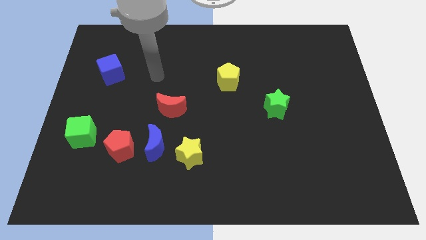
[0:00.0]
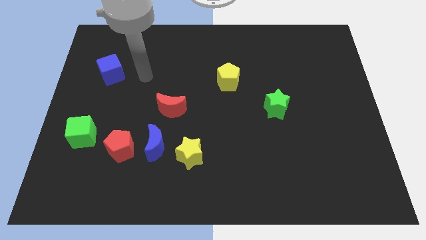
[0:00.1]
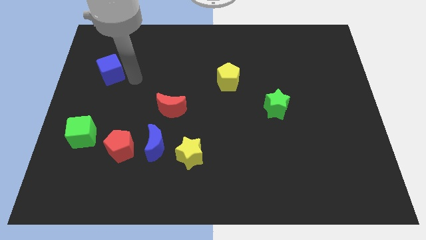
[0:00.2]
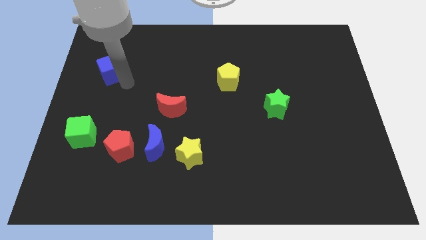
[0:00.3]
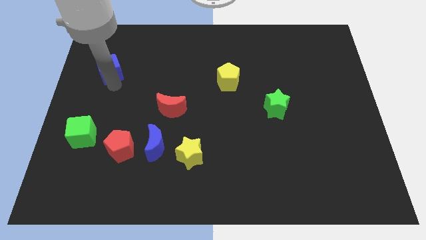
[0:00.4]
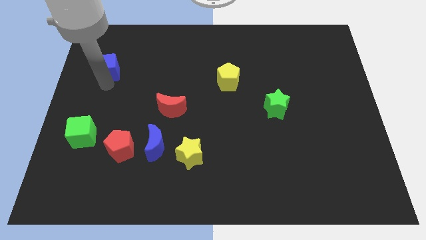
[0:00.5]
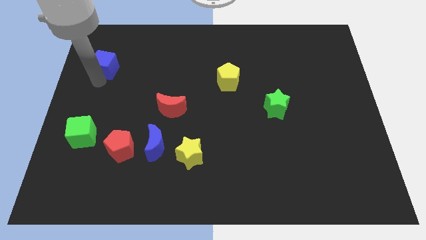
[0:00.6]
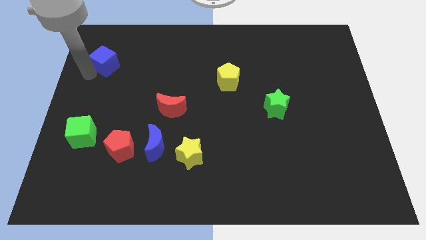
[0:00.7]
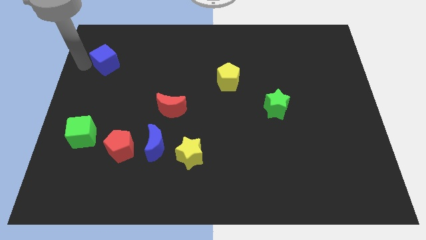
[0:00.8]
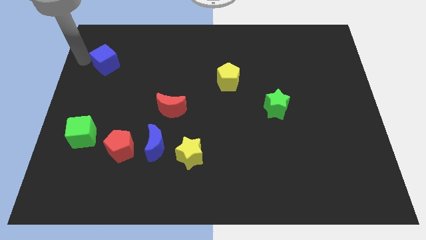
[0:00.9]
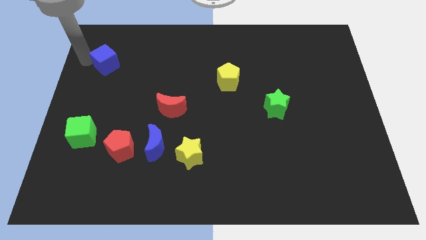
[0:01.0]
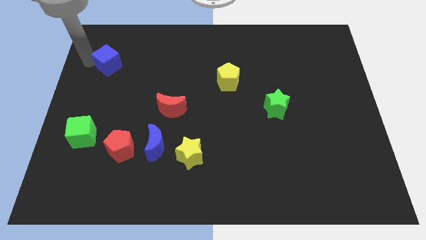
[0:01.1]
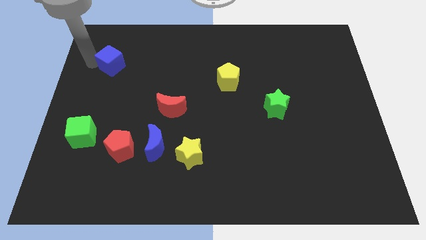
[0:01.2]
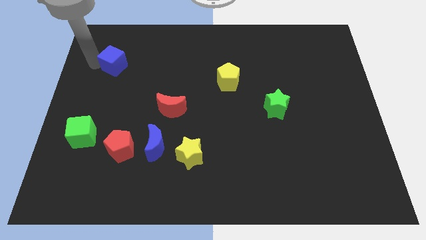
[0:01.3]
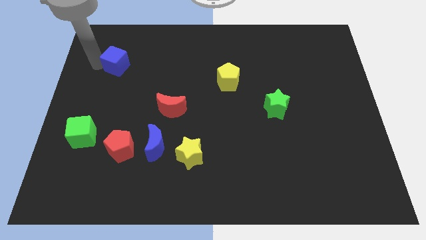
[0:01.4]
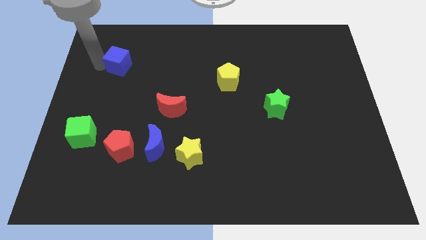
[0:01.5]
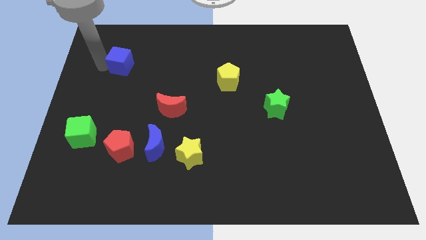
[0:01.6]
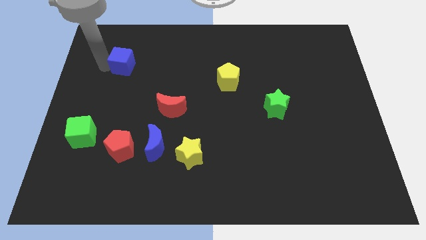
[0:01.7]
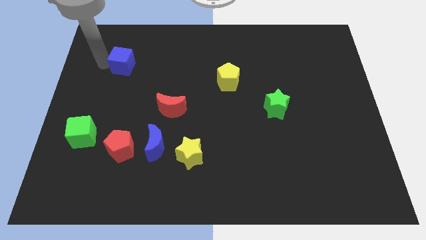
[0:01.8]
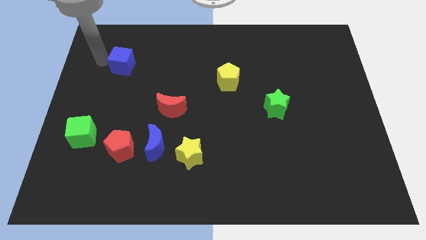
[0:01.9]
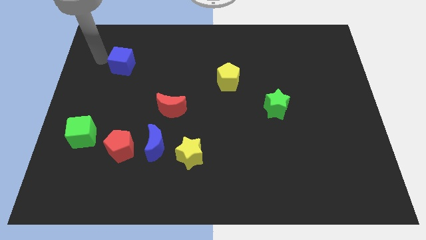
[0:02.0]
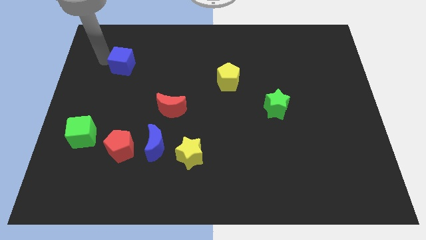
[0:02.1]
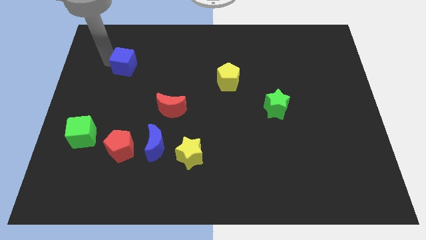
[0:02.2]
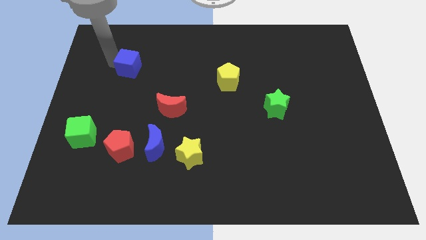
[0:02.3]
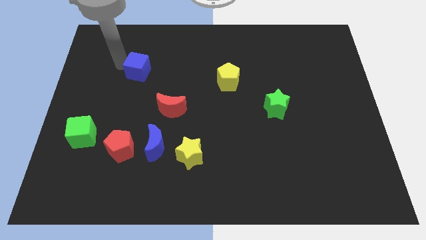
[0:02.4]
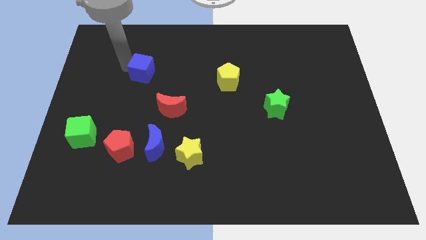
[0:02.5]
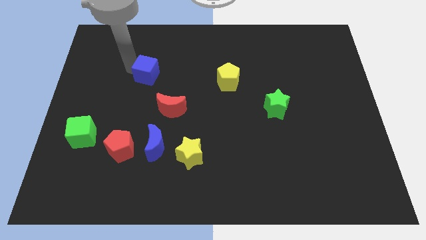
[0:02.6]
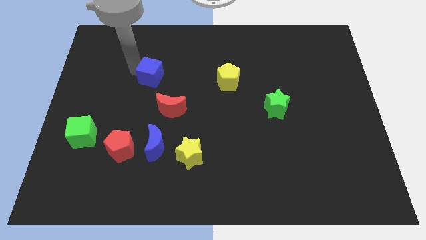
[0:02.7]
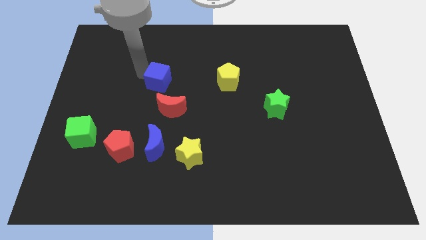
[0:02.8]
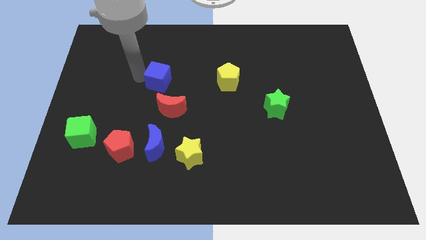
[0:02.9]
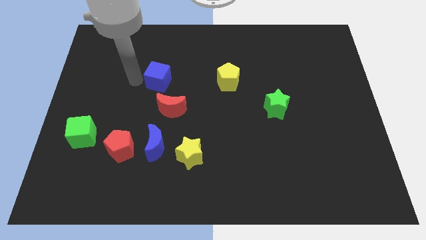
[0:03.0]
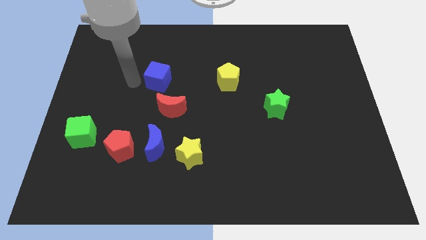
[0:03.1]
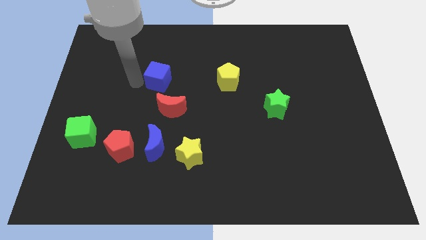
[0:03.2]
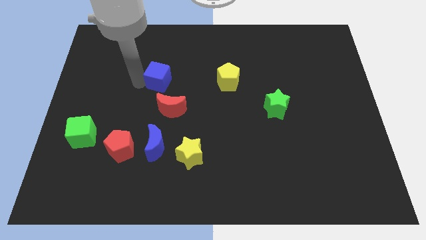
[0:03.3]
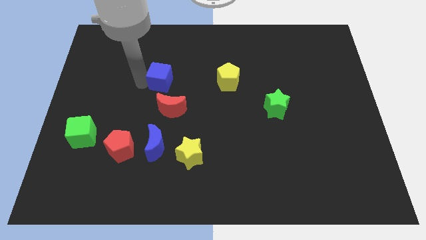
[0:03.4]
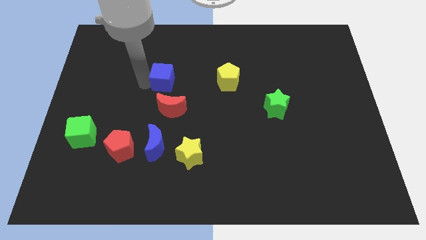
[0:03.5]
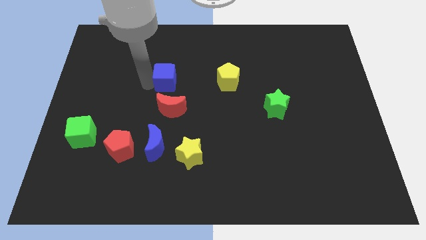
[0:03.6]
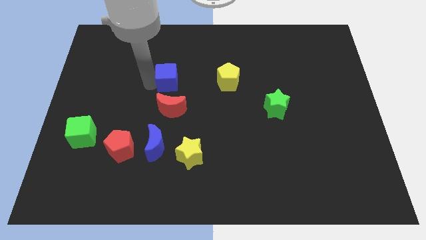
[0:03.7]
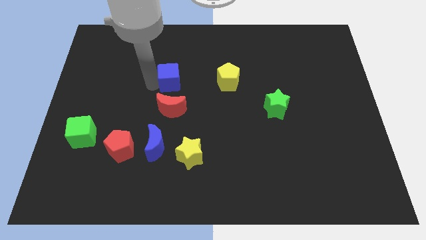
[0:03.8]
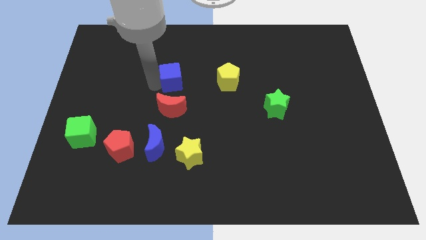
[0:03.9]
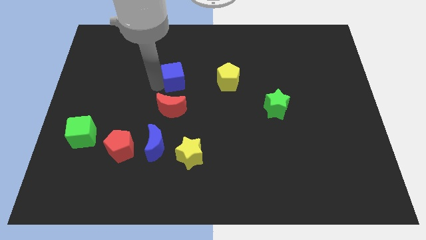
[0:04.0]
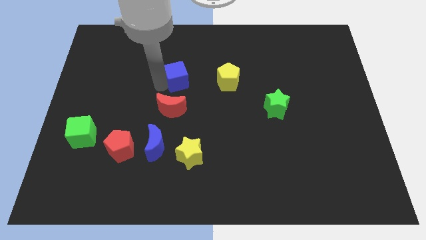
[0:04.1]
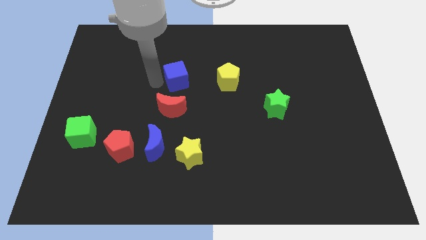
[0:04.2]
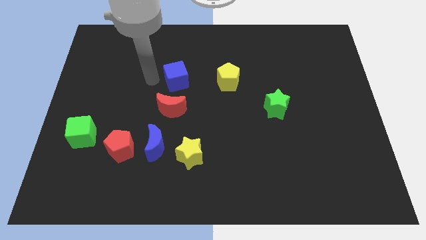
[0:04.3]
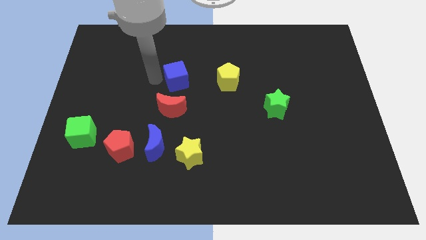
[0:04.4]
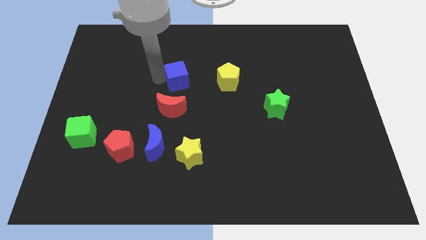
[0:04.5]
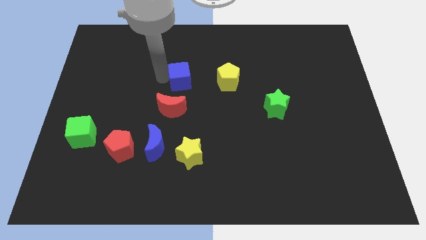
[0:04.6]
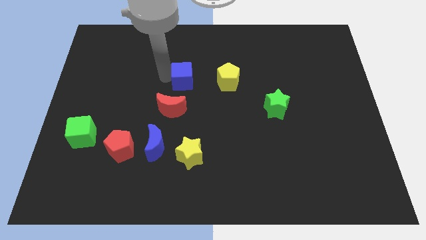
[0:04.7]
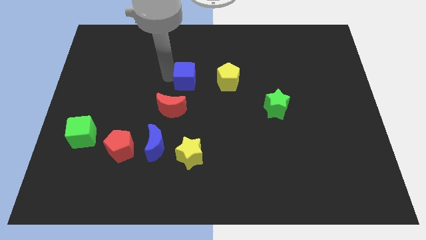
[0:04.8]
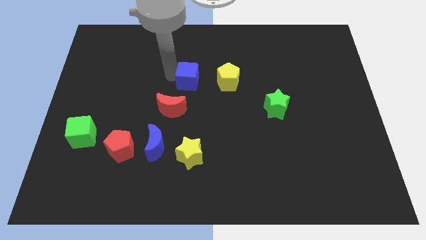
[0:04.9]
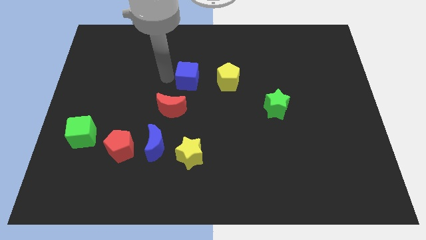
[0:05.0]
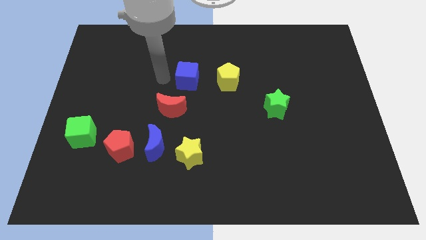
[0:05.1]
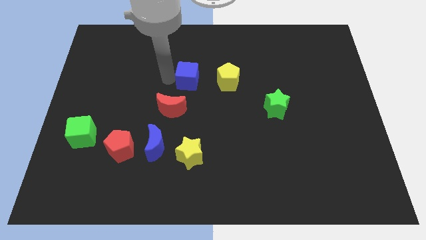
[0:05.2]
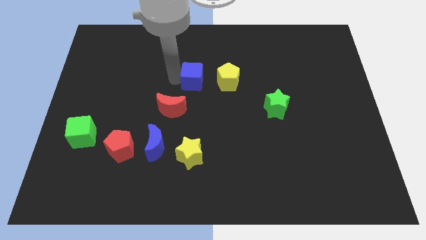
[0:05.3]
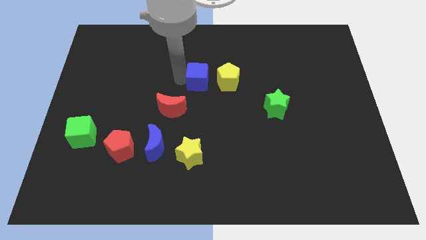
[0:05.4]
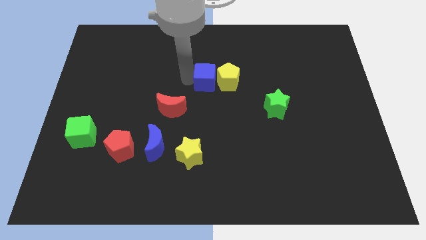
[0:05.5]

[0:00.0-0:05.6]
slide the blue cube towards the yellow pentagon

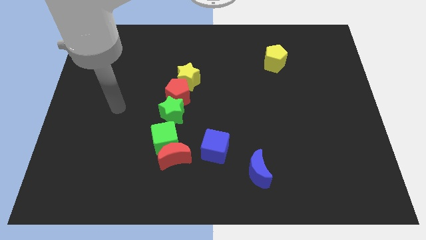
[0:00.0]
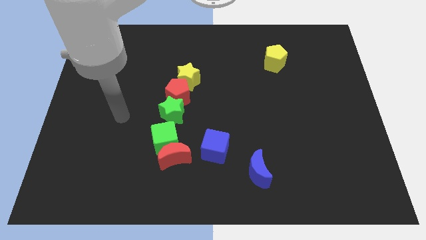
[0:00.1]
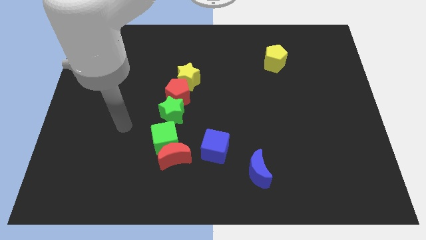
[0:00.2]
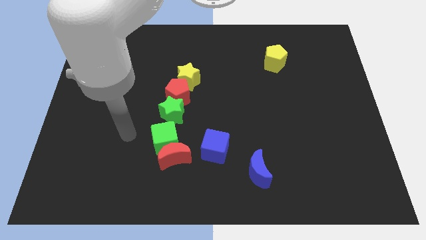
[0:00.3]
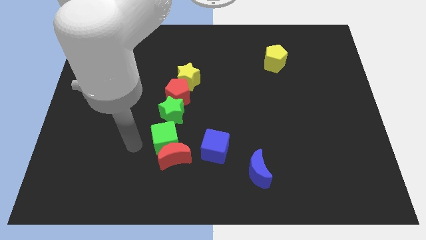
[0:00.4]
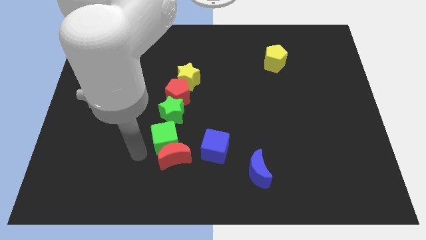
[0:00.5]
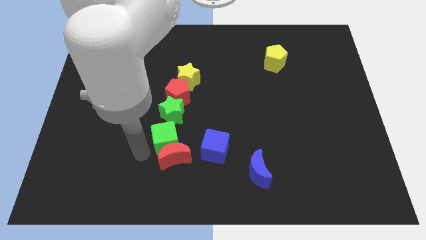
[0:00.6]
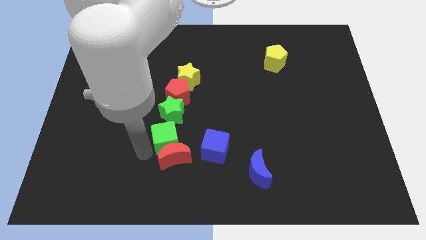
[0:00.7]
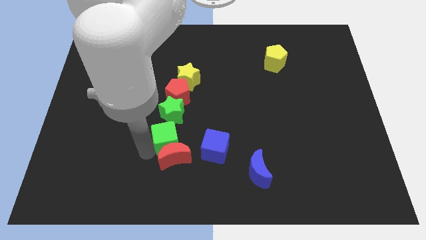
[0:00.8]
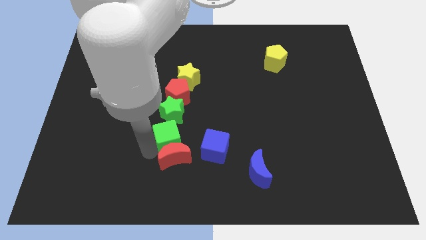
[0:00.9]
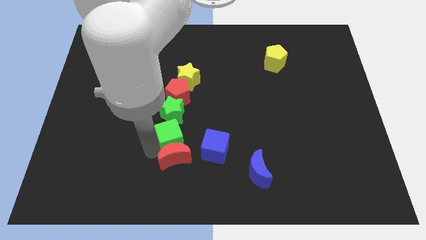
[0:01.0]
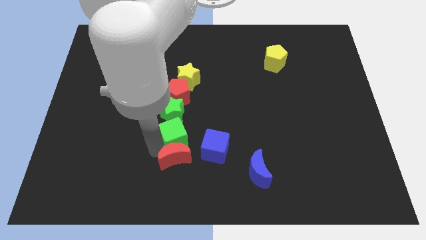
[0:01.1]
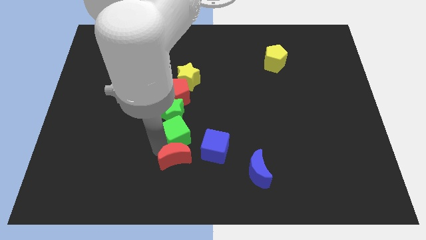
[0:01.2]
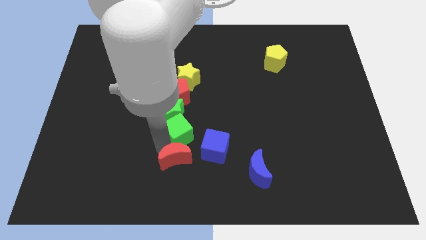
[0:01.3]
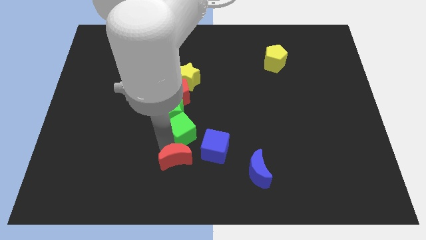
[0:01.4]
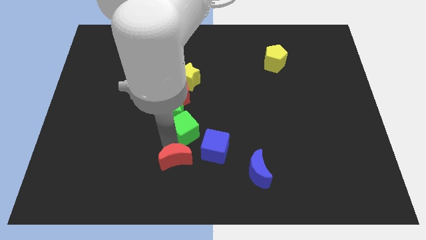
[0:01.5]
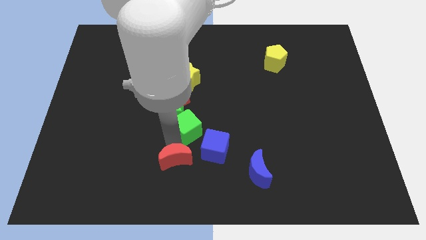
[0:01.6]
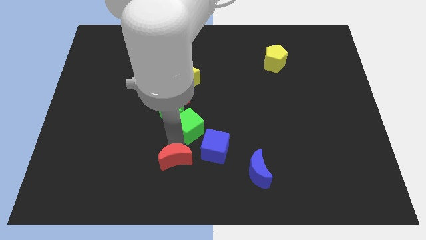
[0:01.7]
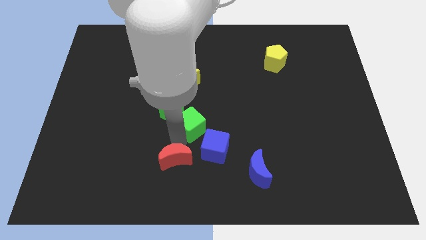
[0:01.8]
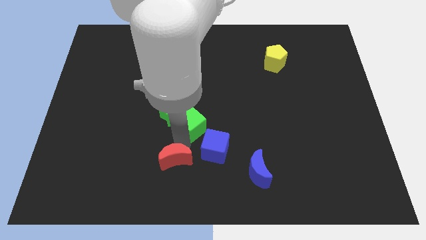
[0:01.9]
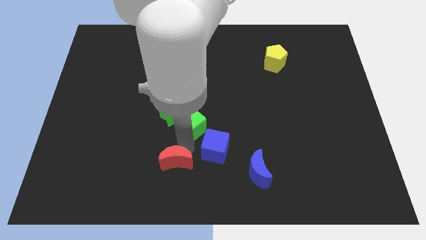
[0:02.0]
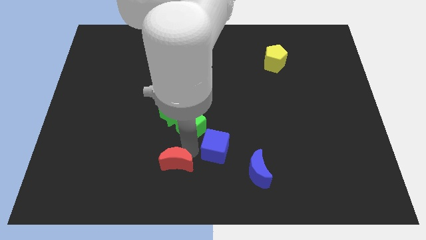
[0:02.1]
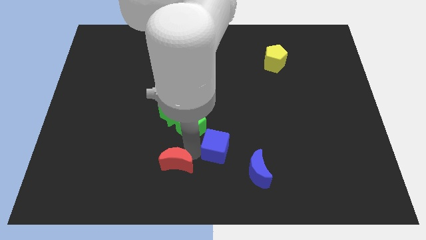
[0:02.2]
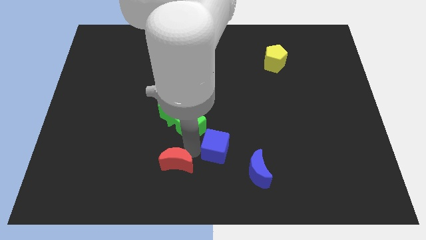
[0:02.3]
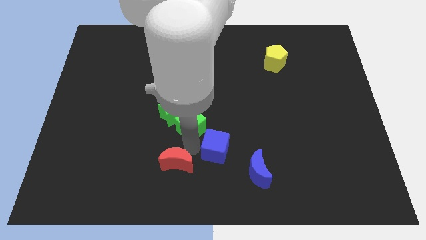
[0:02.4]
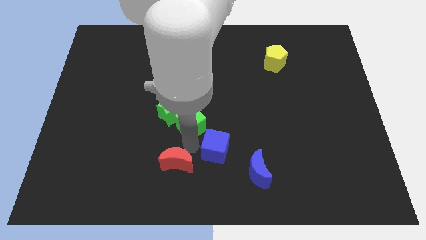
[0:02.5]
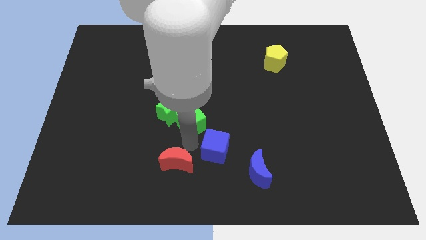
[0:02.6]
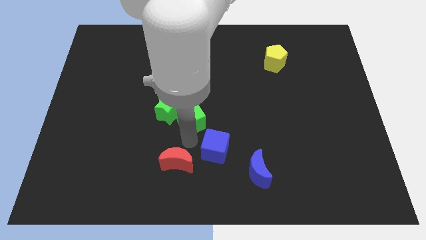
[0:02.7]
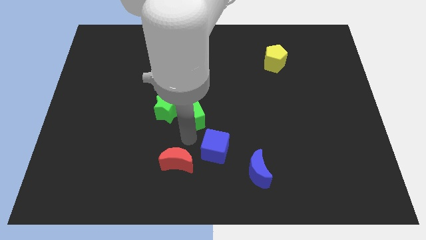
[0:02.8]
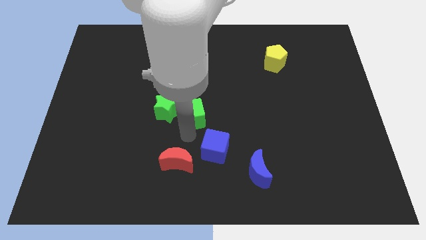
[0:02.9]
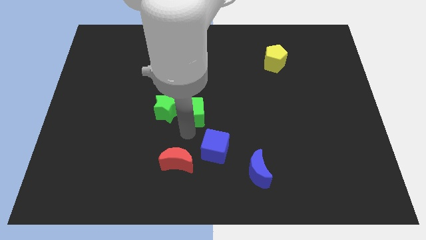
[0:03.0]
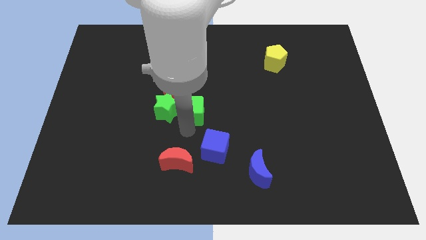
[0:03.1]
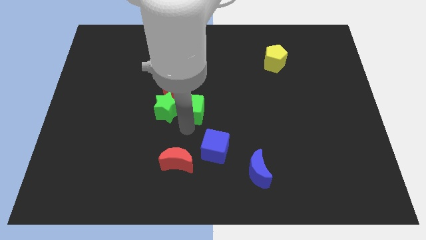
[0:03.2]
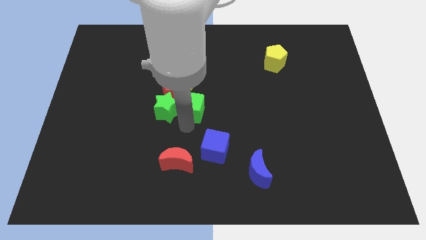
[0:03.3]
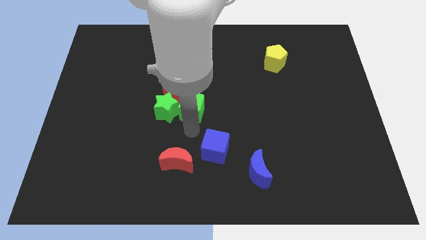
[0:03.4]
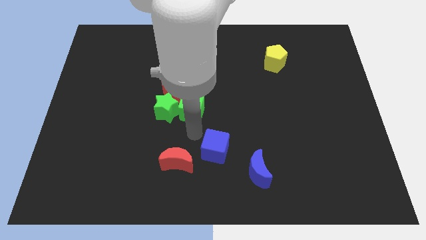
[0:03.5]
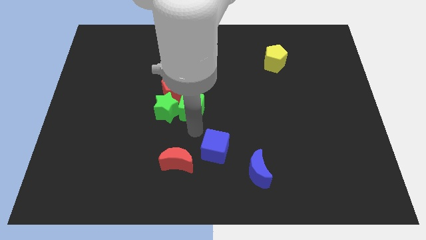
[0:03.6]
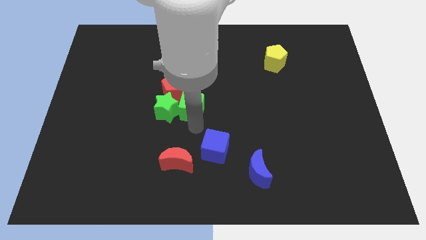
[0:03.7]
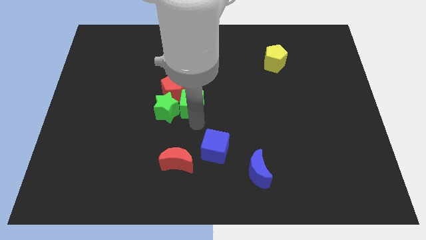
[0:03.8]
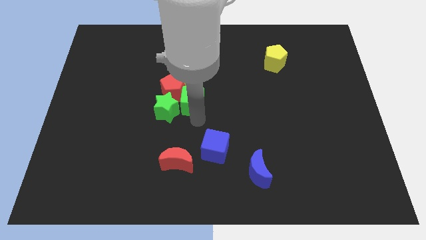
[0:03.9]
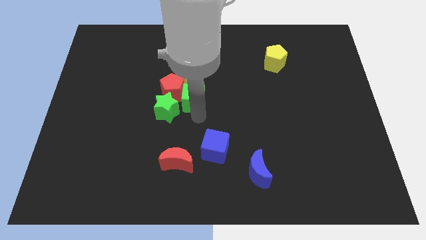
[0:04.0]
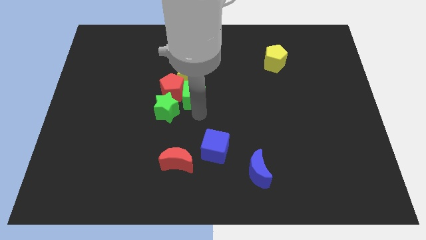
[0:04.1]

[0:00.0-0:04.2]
push the green cube next to the yellow star
